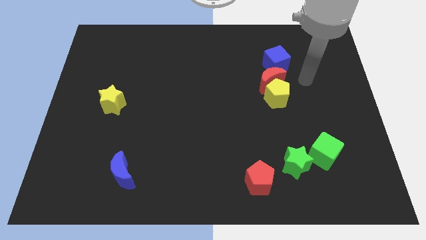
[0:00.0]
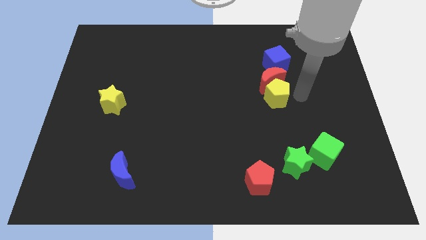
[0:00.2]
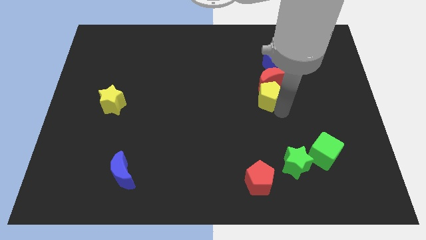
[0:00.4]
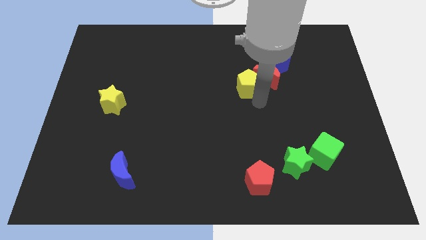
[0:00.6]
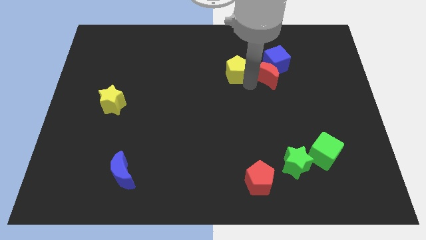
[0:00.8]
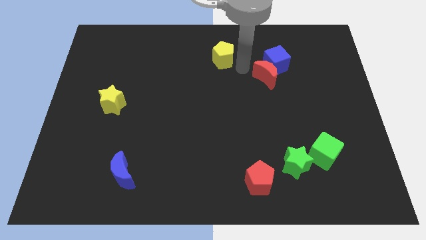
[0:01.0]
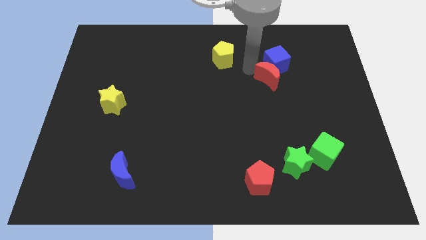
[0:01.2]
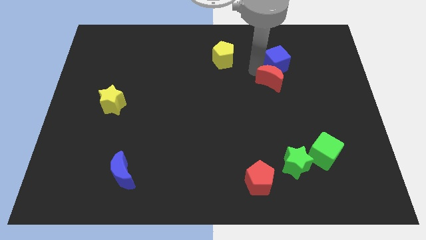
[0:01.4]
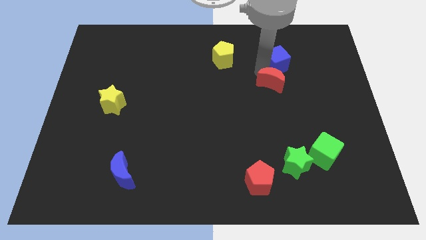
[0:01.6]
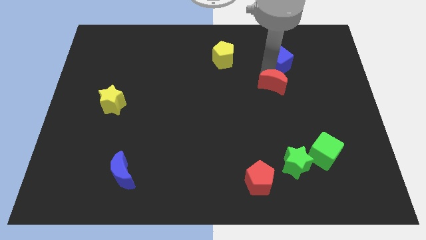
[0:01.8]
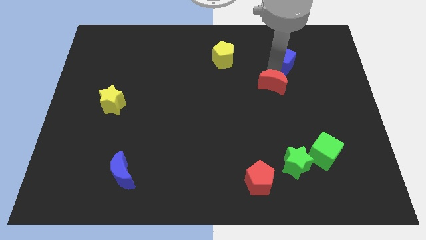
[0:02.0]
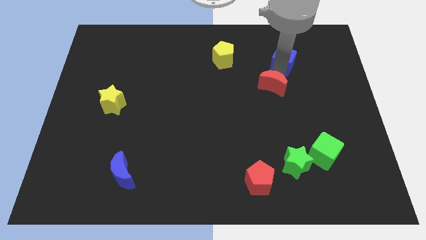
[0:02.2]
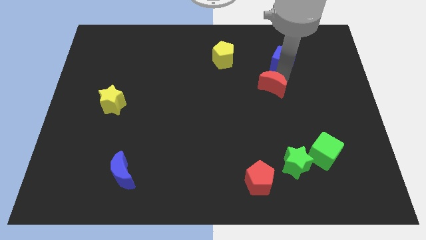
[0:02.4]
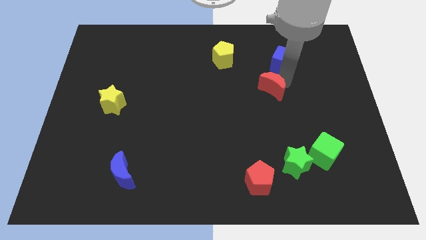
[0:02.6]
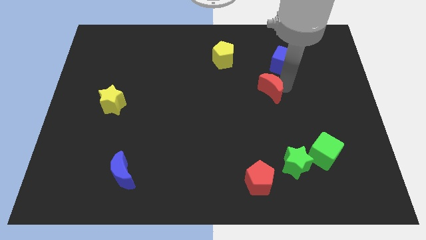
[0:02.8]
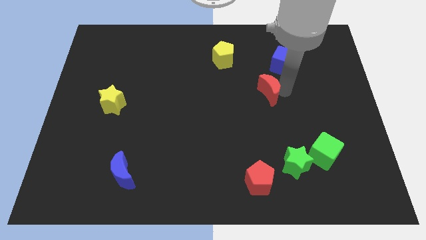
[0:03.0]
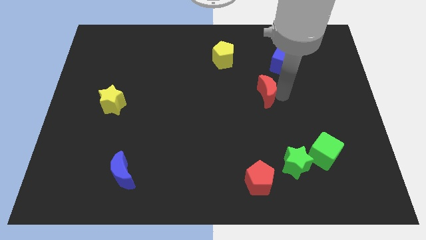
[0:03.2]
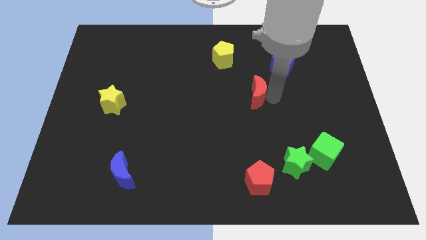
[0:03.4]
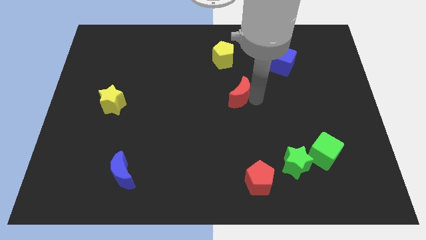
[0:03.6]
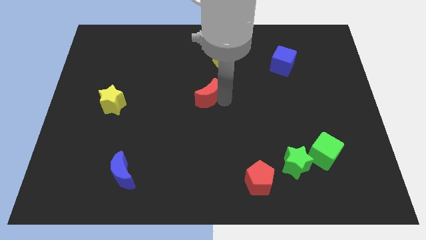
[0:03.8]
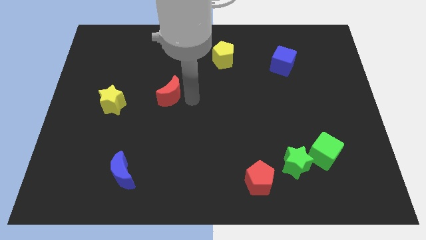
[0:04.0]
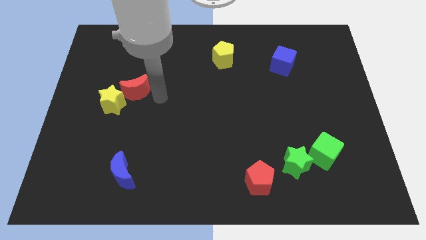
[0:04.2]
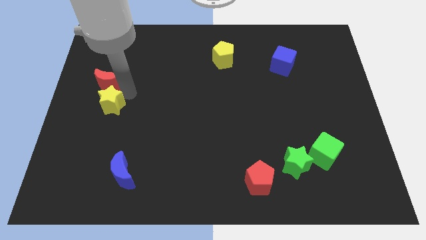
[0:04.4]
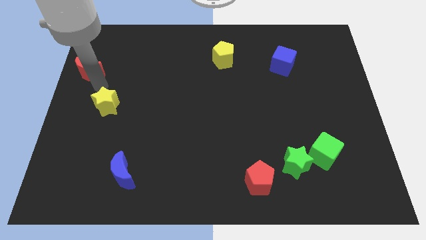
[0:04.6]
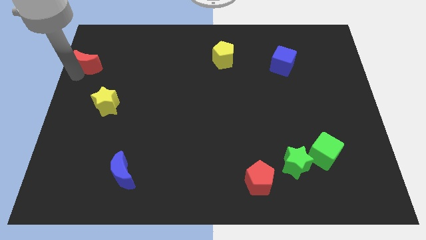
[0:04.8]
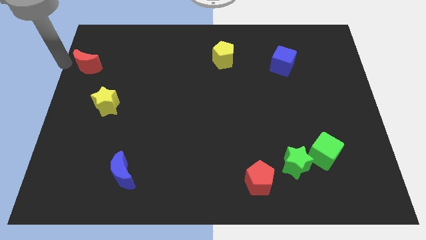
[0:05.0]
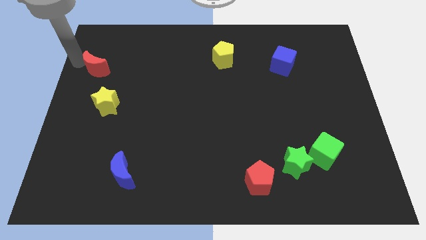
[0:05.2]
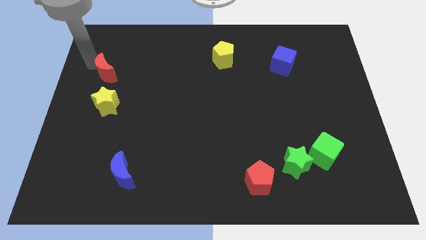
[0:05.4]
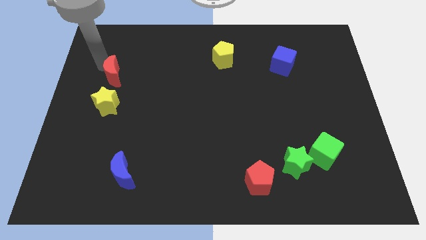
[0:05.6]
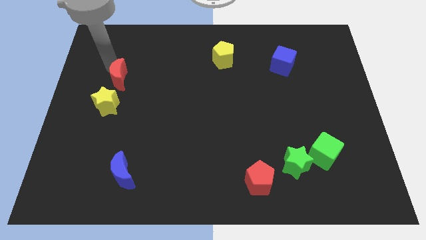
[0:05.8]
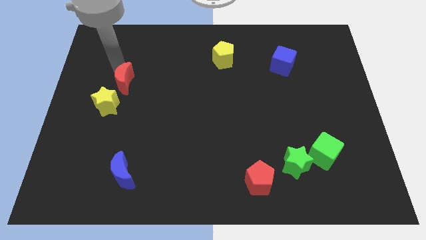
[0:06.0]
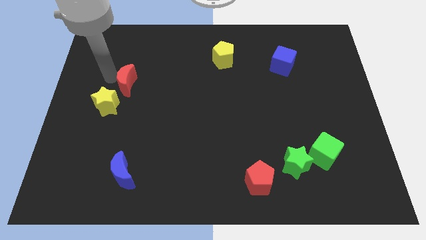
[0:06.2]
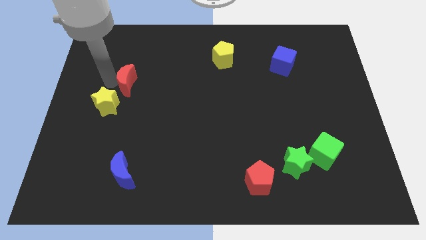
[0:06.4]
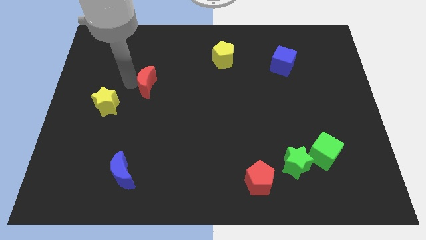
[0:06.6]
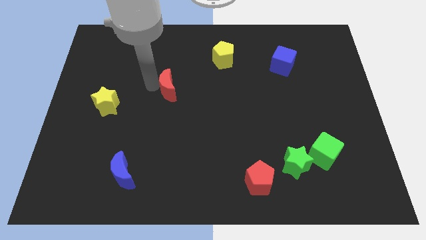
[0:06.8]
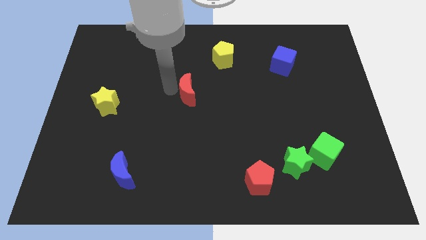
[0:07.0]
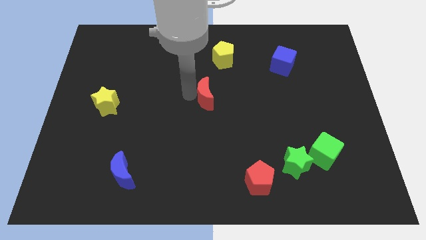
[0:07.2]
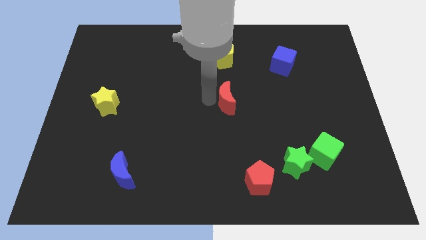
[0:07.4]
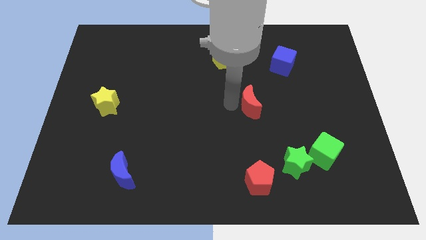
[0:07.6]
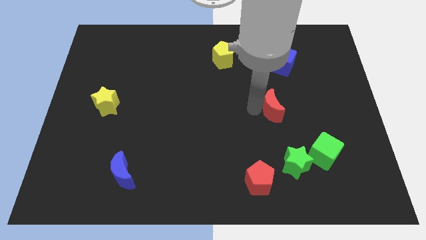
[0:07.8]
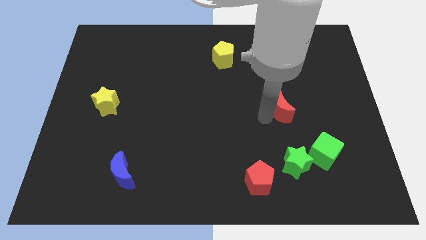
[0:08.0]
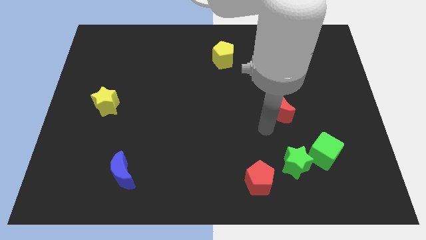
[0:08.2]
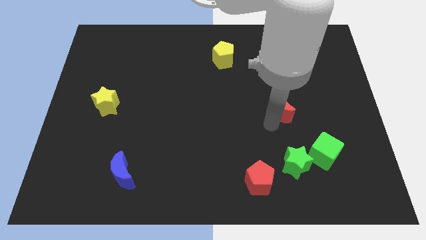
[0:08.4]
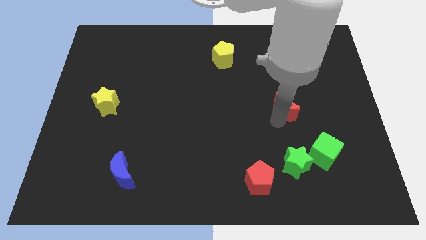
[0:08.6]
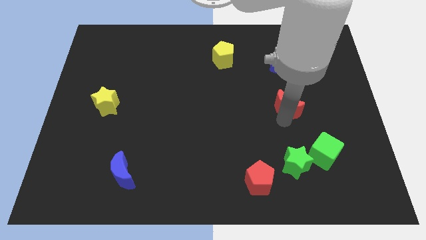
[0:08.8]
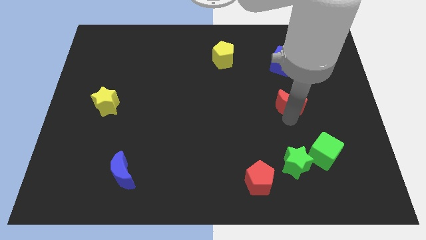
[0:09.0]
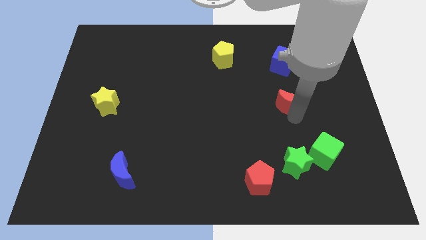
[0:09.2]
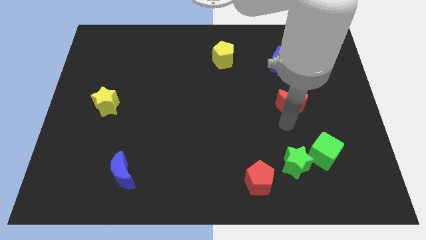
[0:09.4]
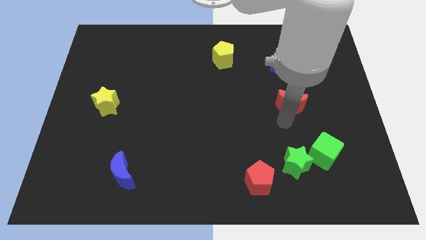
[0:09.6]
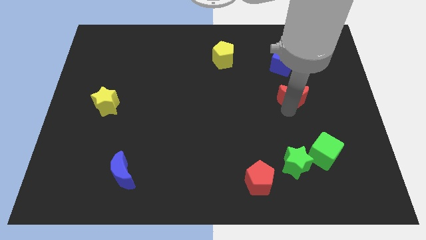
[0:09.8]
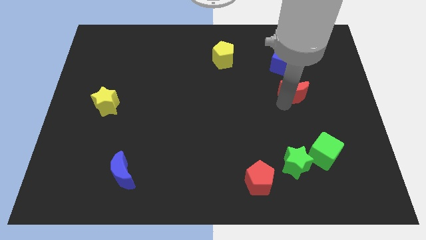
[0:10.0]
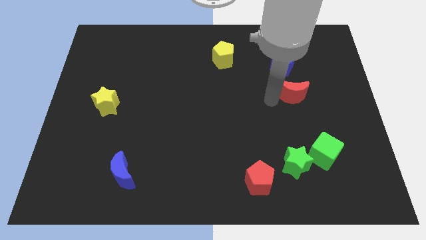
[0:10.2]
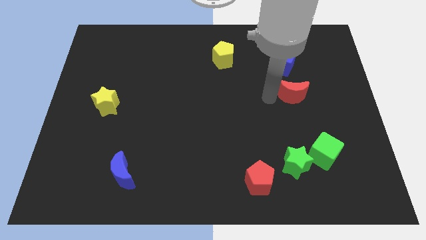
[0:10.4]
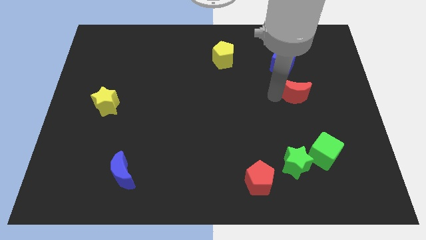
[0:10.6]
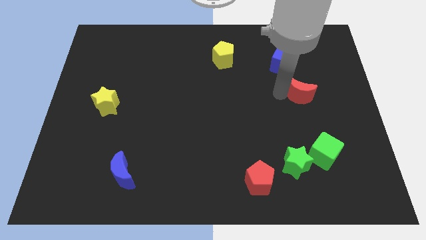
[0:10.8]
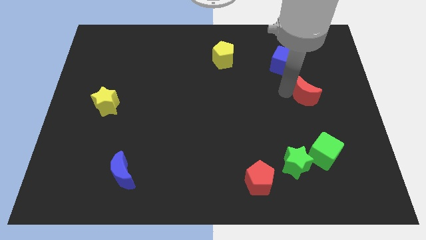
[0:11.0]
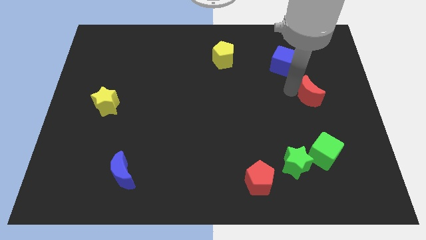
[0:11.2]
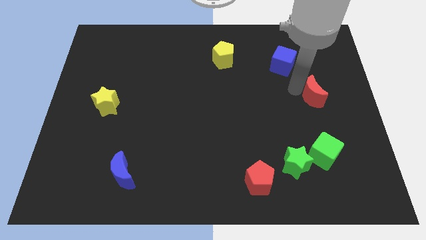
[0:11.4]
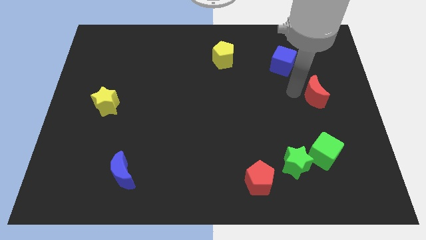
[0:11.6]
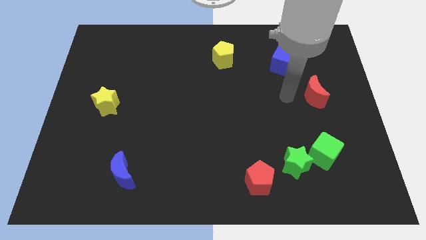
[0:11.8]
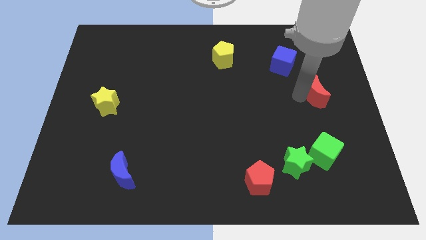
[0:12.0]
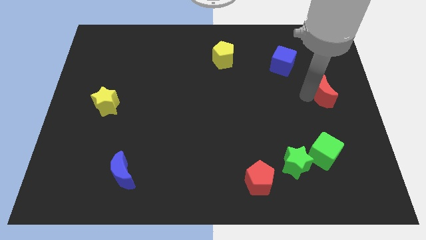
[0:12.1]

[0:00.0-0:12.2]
put the red moon to the right side of the board

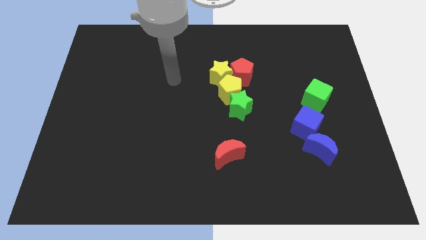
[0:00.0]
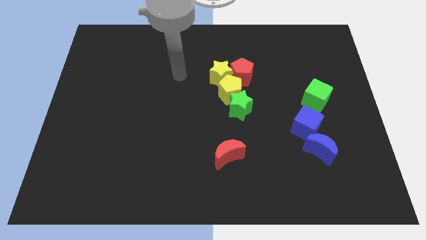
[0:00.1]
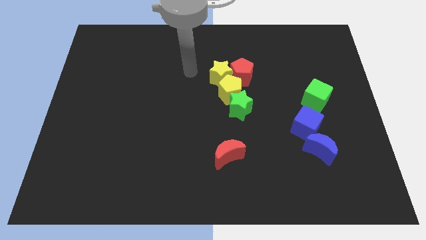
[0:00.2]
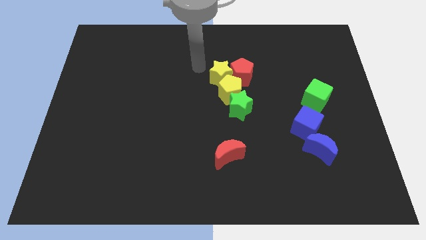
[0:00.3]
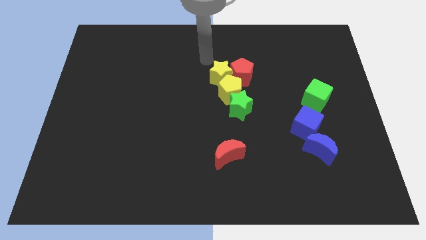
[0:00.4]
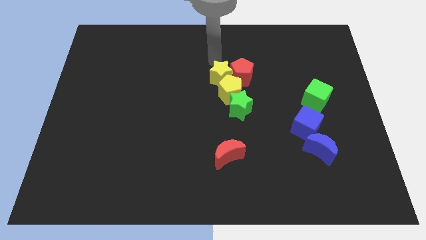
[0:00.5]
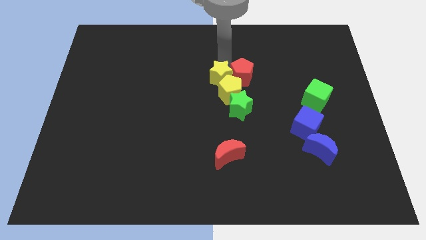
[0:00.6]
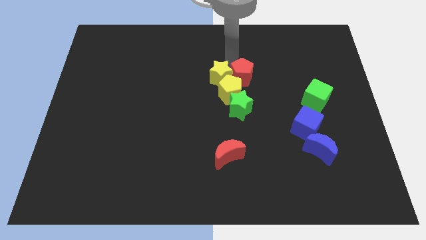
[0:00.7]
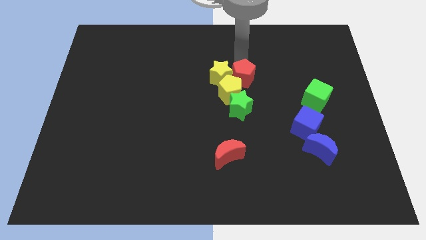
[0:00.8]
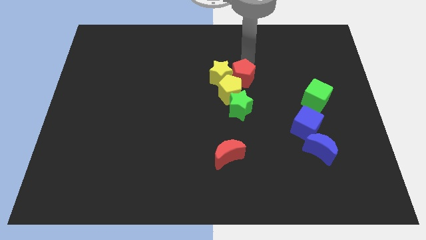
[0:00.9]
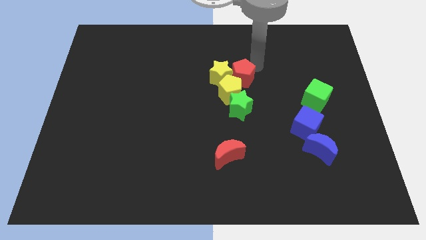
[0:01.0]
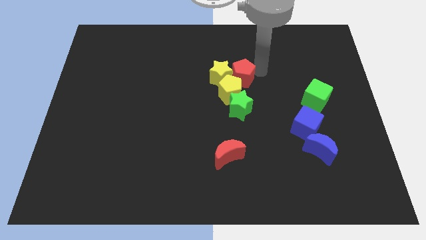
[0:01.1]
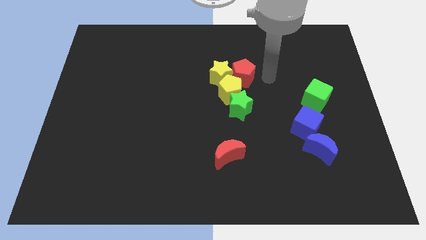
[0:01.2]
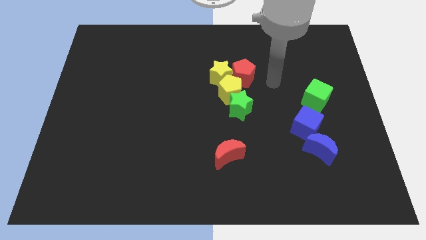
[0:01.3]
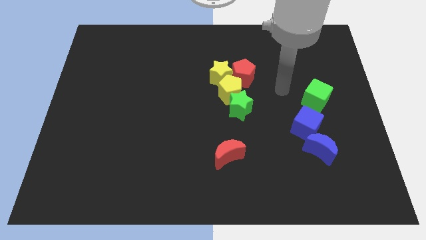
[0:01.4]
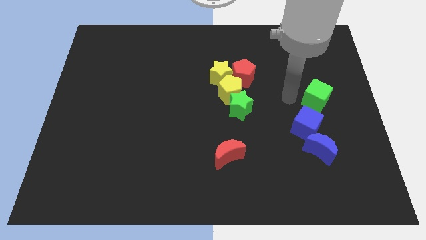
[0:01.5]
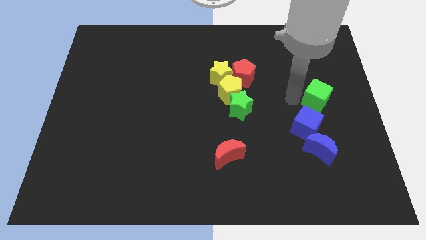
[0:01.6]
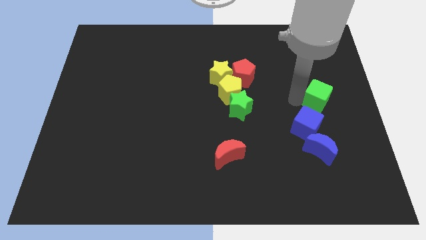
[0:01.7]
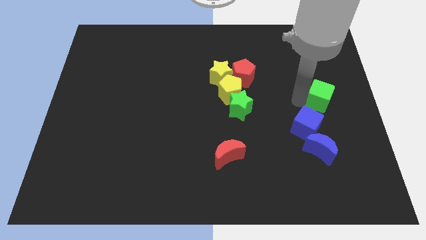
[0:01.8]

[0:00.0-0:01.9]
move the green cube to the right side of the board
